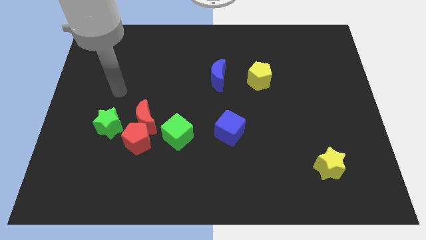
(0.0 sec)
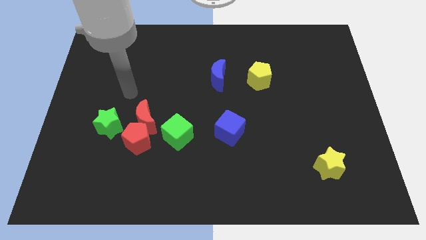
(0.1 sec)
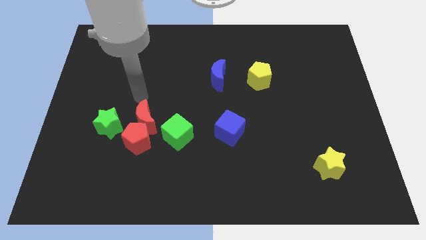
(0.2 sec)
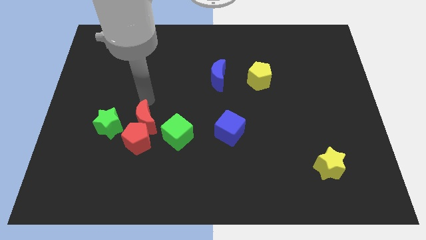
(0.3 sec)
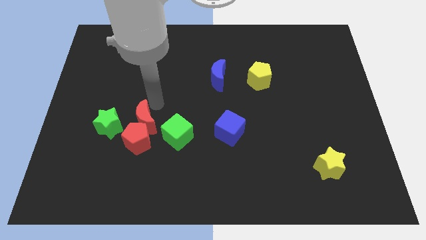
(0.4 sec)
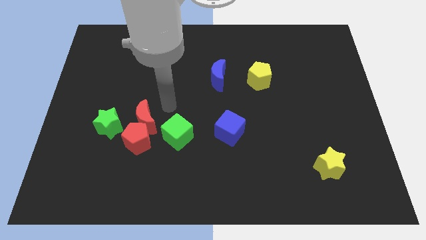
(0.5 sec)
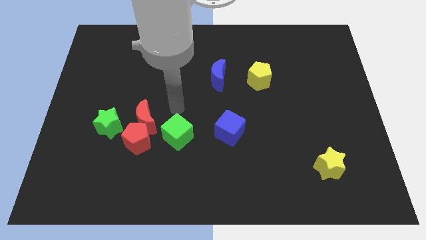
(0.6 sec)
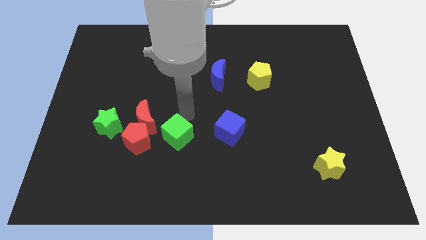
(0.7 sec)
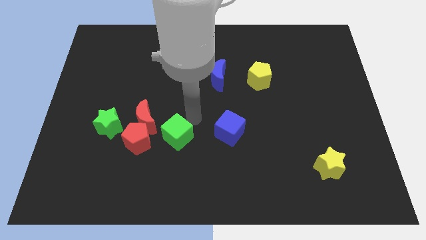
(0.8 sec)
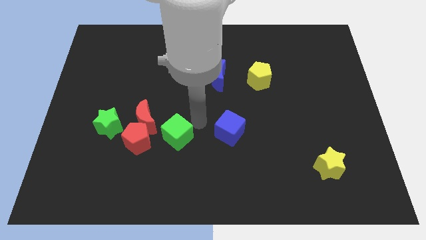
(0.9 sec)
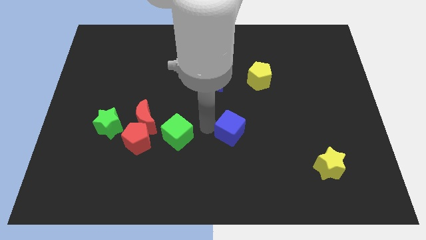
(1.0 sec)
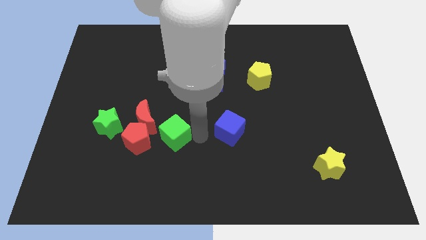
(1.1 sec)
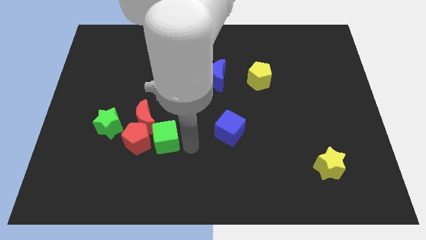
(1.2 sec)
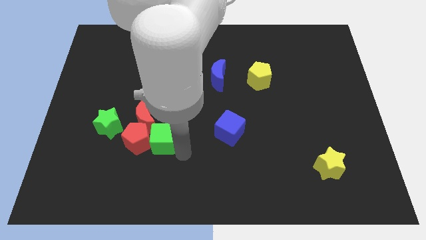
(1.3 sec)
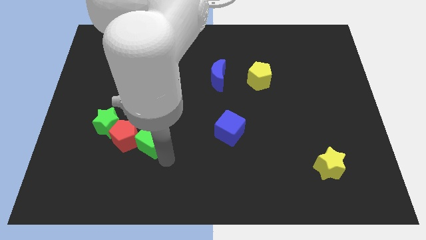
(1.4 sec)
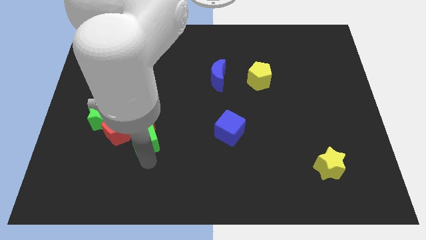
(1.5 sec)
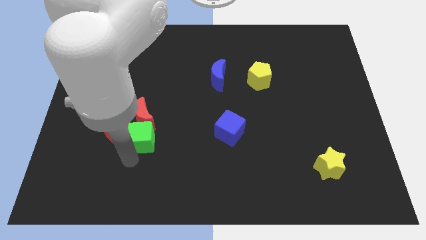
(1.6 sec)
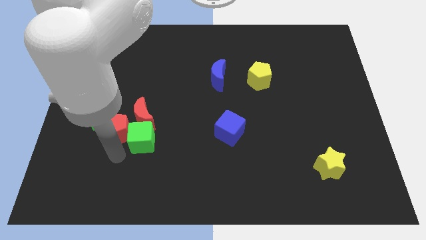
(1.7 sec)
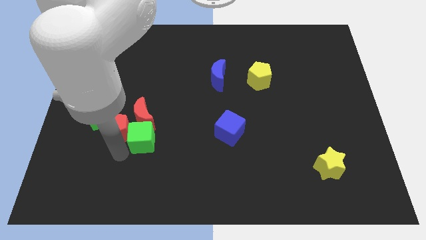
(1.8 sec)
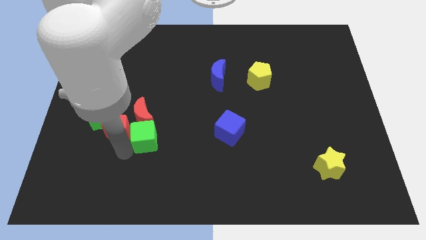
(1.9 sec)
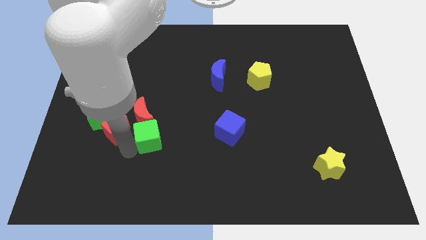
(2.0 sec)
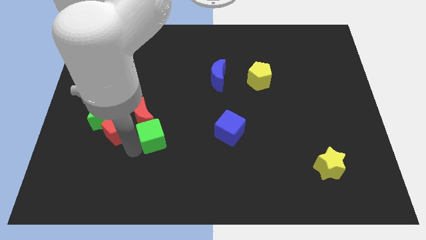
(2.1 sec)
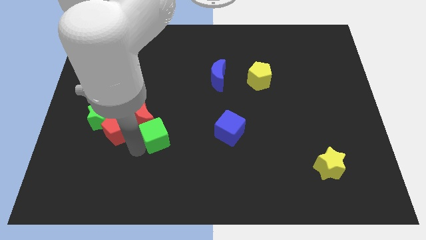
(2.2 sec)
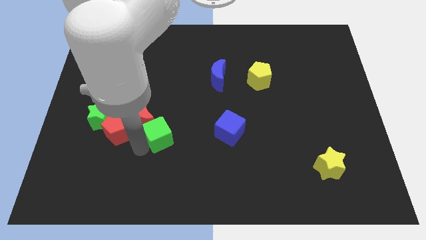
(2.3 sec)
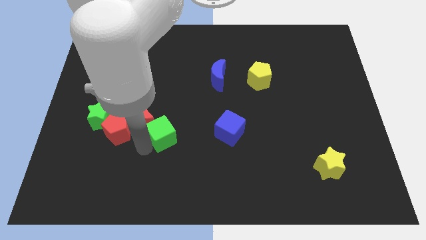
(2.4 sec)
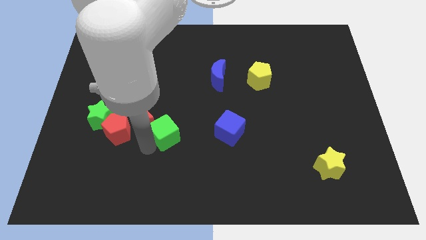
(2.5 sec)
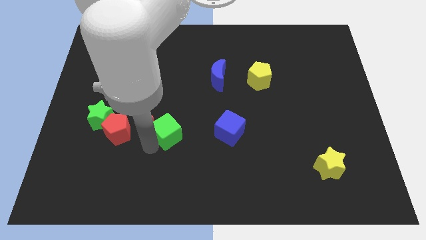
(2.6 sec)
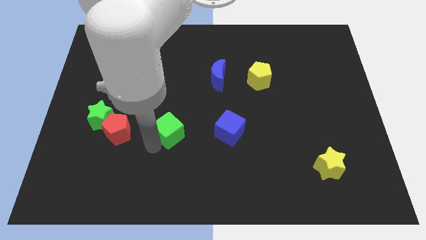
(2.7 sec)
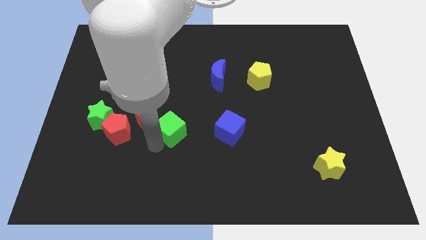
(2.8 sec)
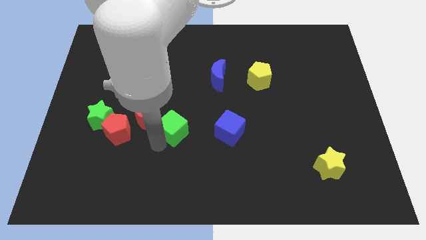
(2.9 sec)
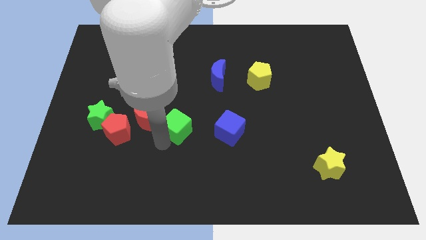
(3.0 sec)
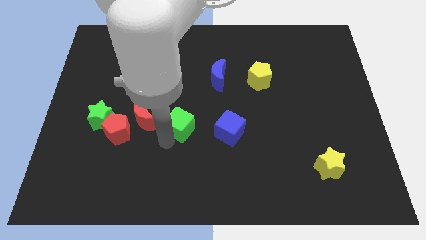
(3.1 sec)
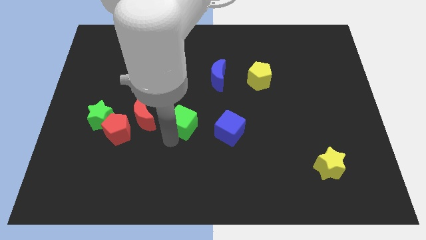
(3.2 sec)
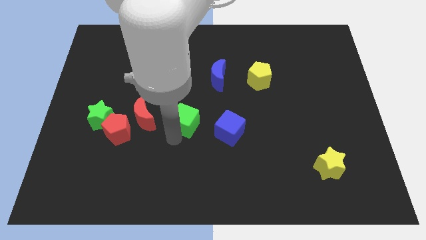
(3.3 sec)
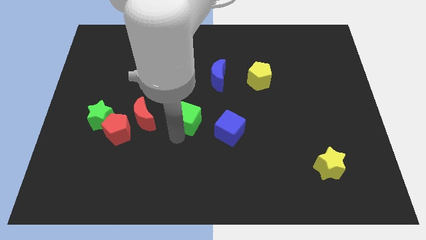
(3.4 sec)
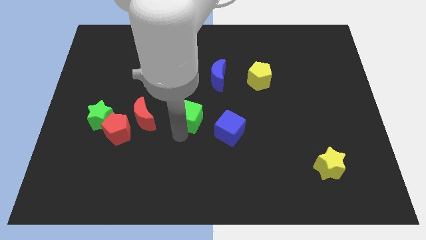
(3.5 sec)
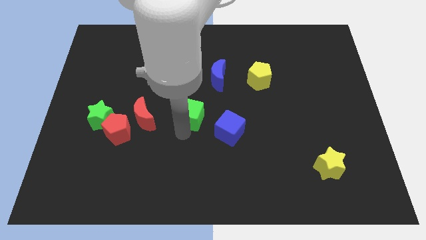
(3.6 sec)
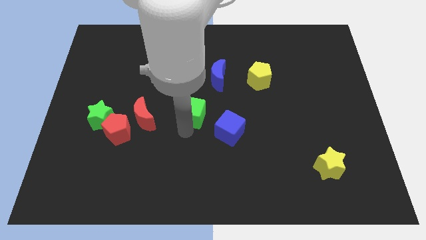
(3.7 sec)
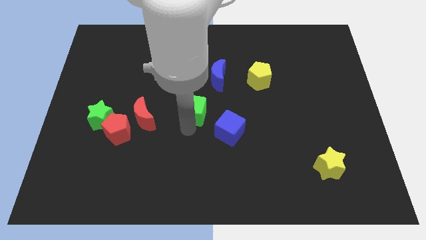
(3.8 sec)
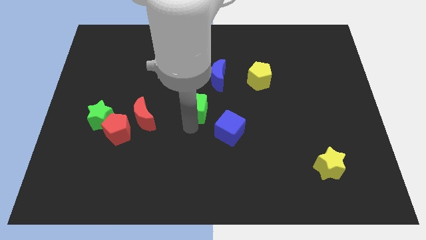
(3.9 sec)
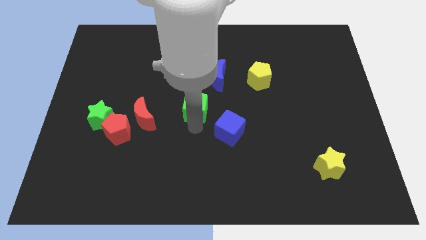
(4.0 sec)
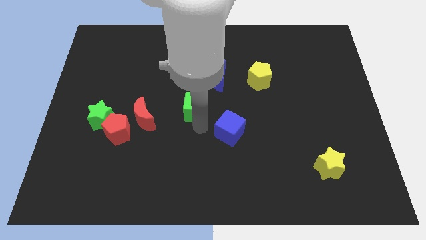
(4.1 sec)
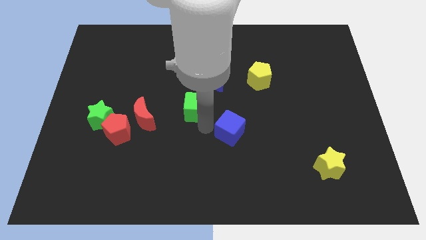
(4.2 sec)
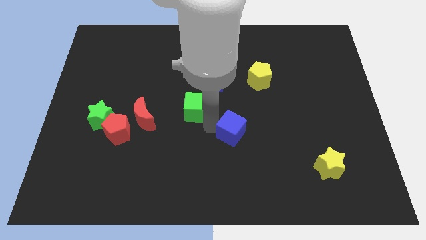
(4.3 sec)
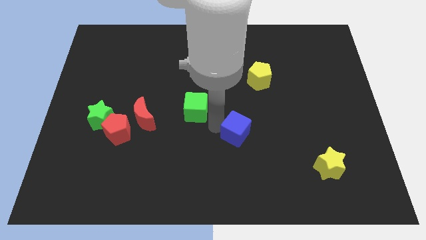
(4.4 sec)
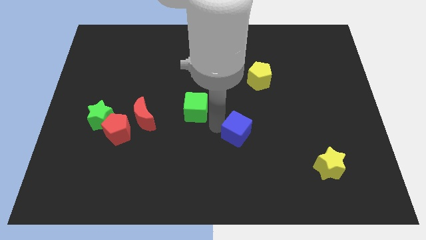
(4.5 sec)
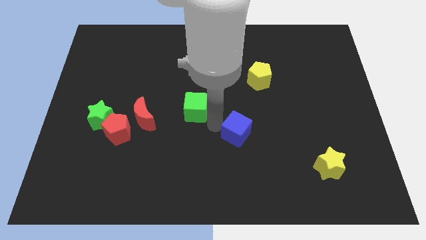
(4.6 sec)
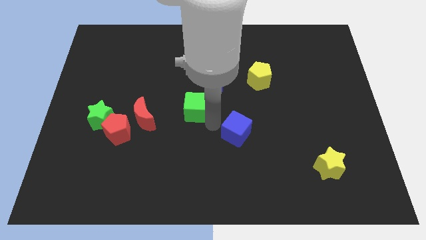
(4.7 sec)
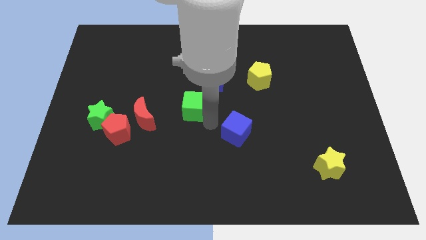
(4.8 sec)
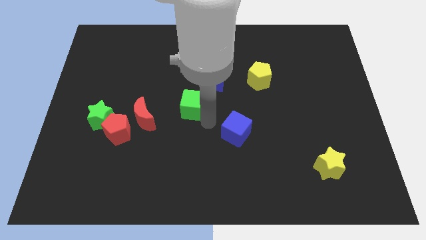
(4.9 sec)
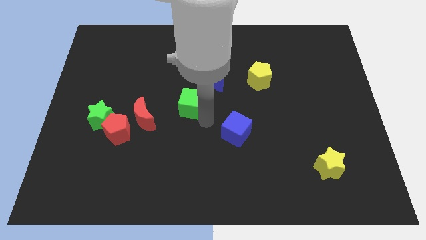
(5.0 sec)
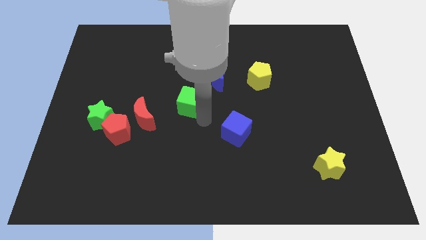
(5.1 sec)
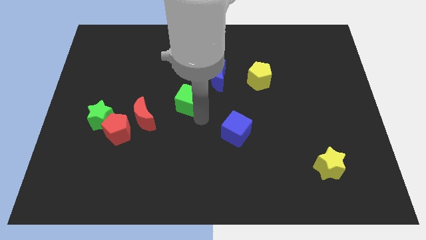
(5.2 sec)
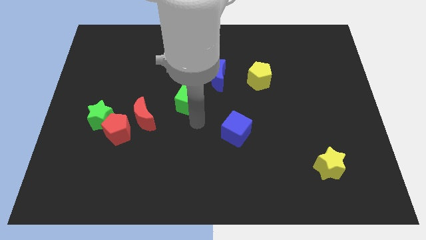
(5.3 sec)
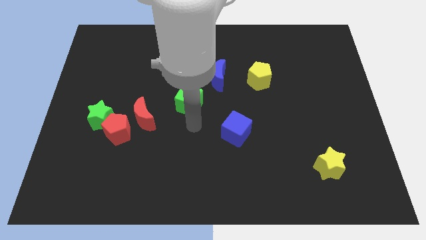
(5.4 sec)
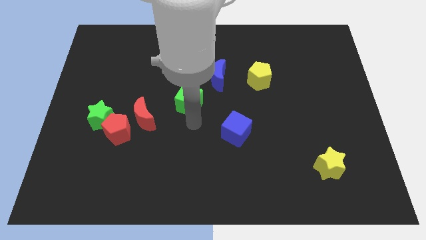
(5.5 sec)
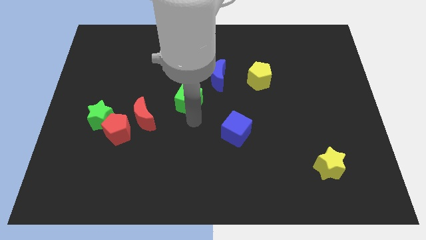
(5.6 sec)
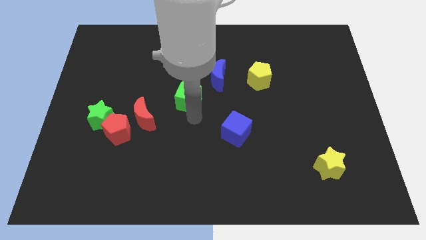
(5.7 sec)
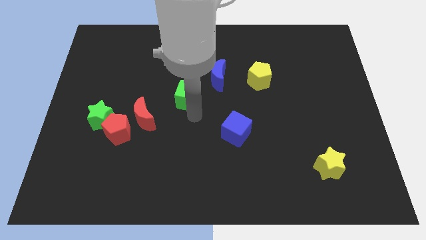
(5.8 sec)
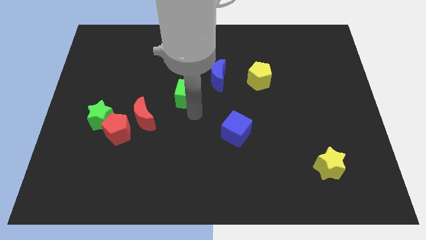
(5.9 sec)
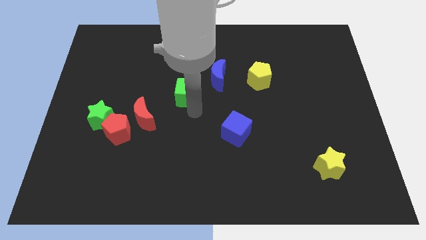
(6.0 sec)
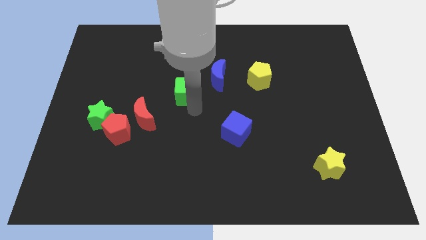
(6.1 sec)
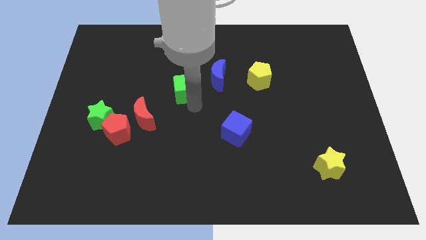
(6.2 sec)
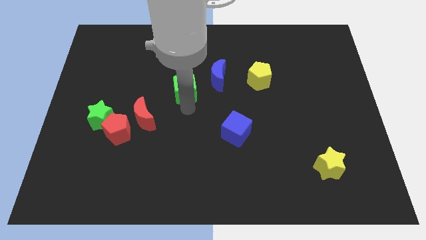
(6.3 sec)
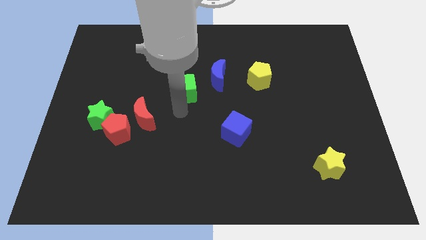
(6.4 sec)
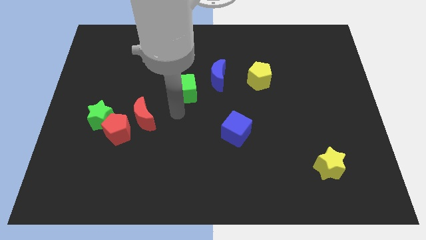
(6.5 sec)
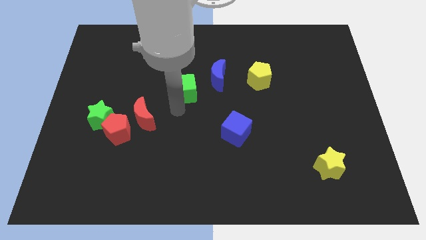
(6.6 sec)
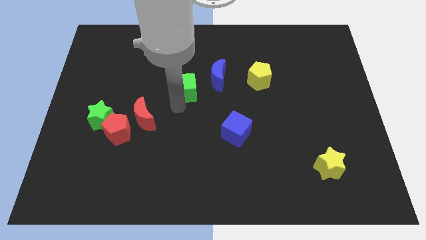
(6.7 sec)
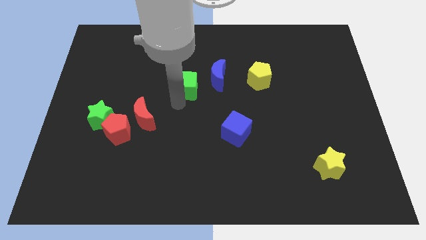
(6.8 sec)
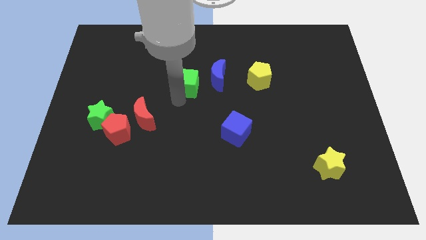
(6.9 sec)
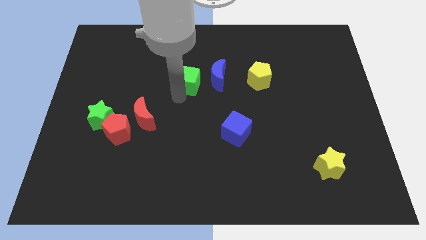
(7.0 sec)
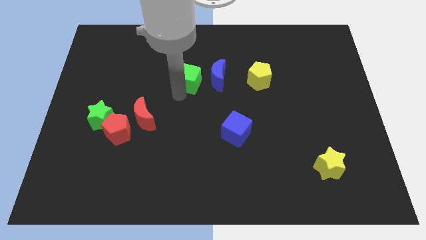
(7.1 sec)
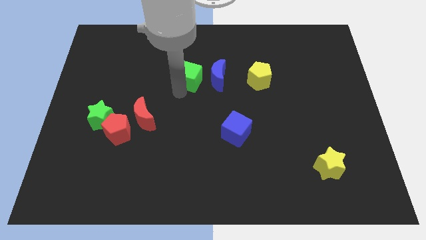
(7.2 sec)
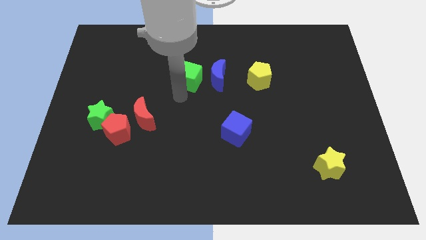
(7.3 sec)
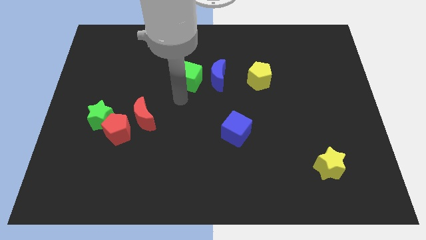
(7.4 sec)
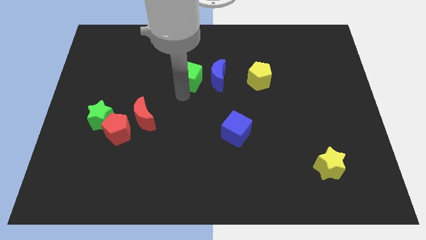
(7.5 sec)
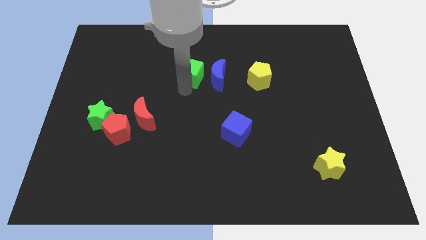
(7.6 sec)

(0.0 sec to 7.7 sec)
slide the green cube to the top left of the blue moon

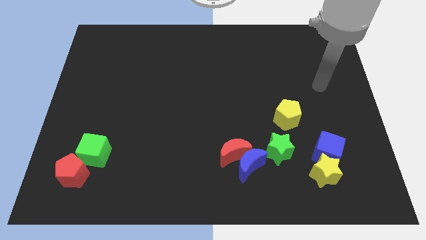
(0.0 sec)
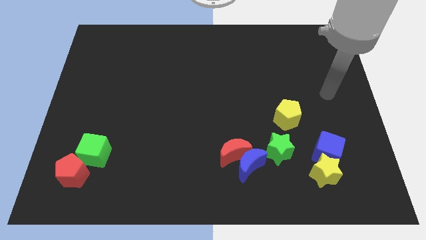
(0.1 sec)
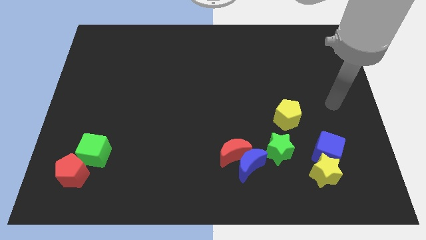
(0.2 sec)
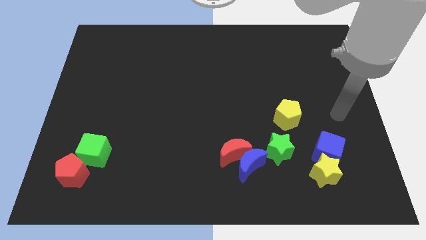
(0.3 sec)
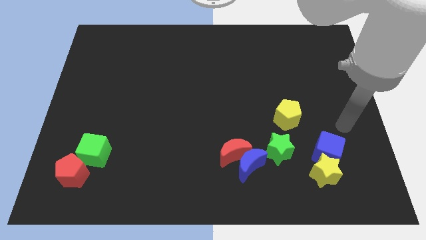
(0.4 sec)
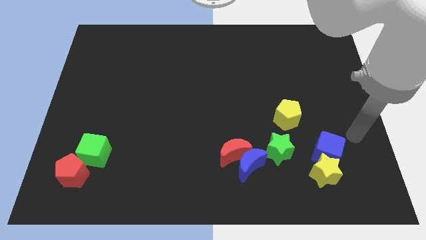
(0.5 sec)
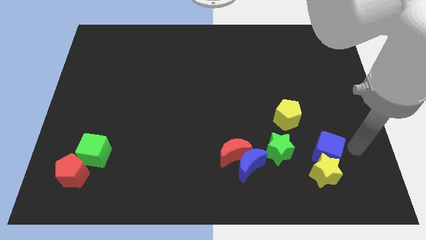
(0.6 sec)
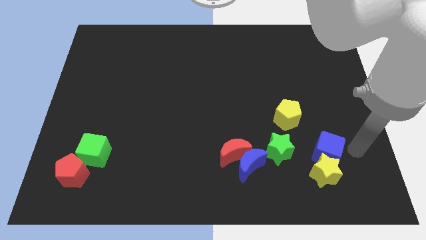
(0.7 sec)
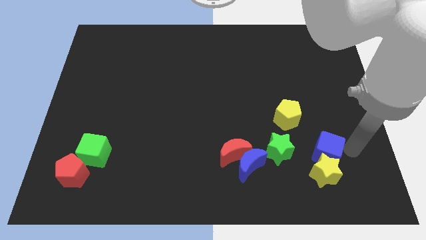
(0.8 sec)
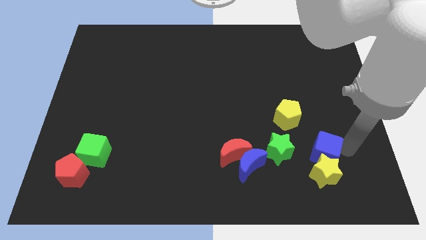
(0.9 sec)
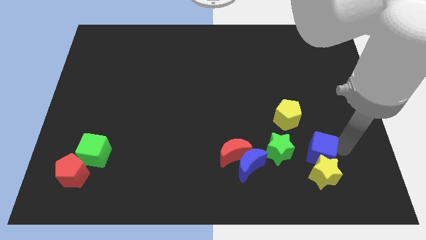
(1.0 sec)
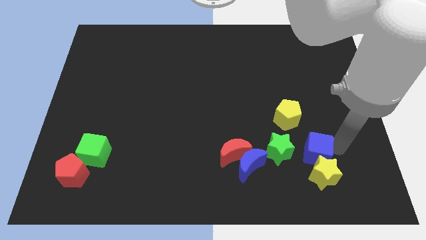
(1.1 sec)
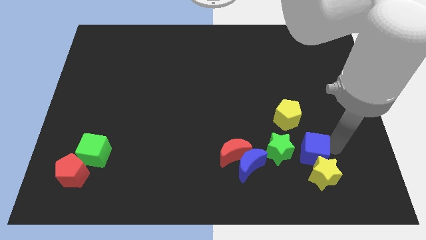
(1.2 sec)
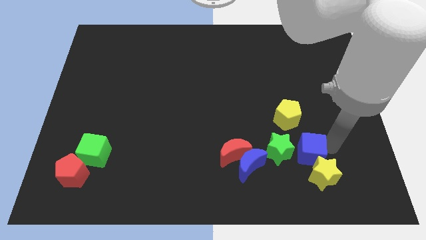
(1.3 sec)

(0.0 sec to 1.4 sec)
move the blue cube to the right side of the red moon
